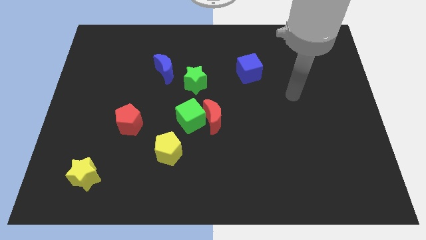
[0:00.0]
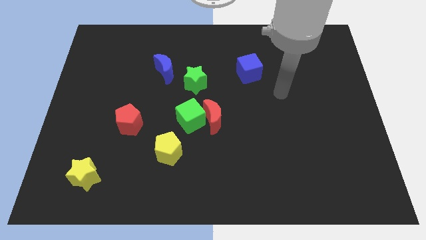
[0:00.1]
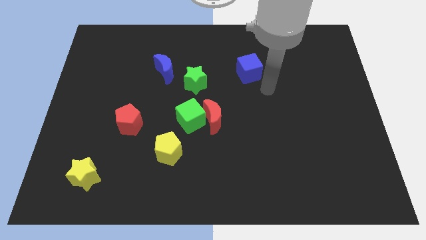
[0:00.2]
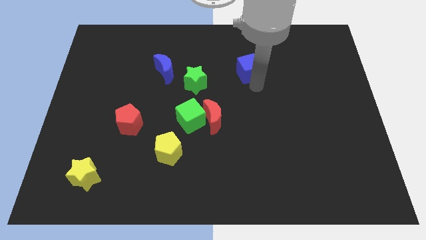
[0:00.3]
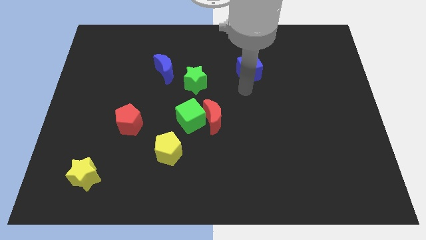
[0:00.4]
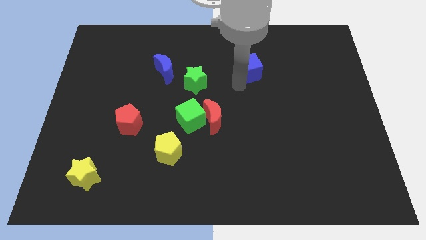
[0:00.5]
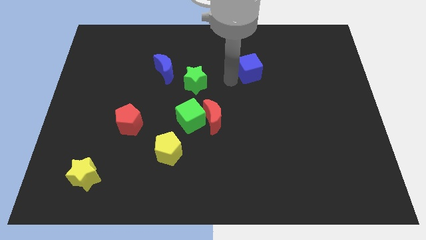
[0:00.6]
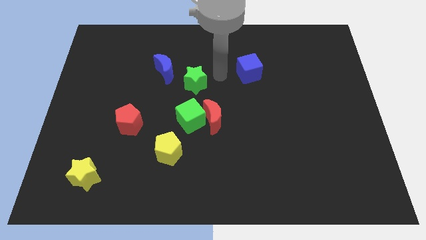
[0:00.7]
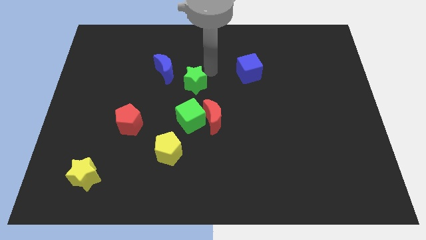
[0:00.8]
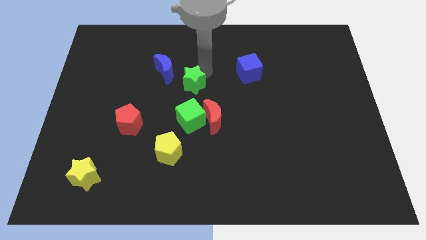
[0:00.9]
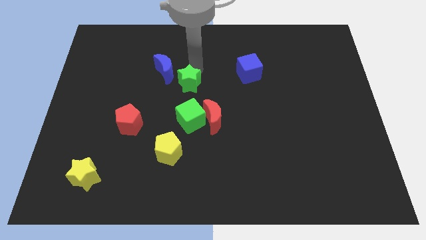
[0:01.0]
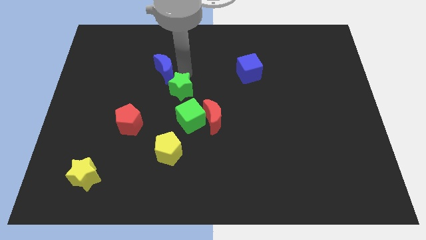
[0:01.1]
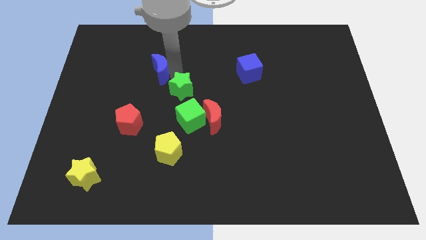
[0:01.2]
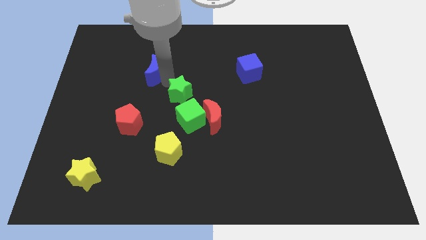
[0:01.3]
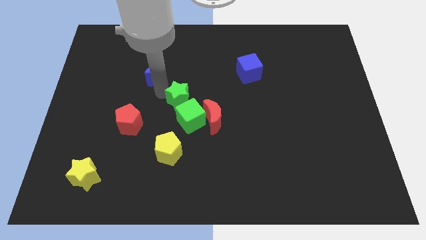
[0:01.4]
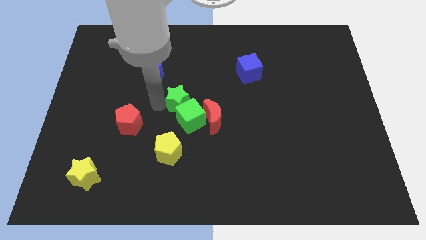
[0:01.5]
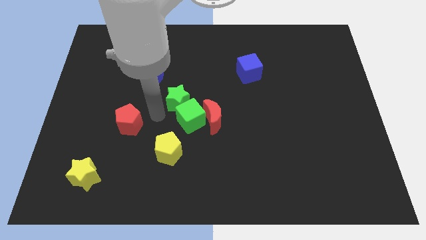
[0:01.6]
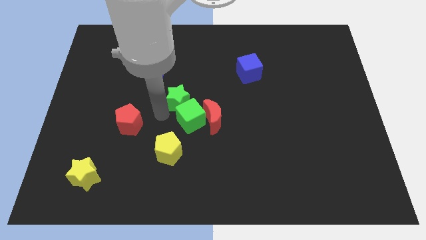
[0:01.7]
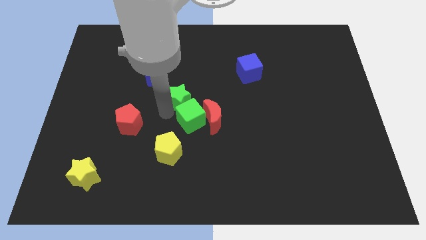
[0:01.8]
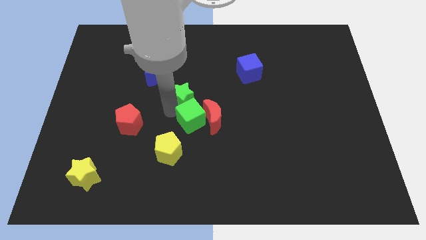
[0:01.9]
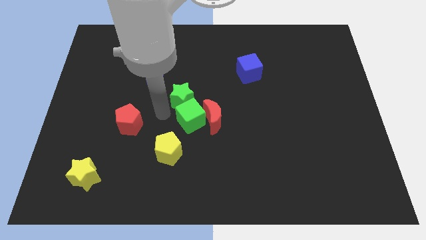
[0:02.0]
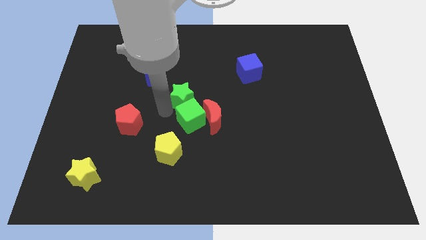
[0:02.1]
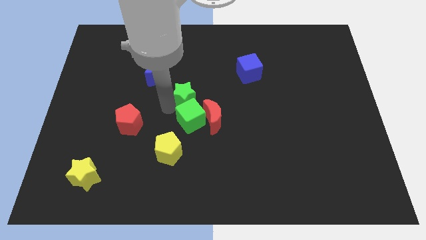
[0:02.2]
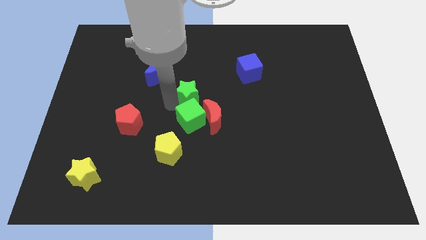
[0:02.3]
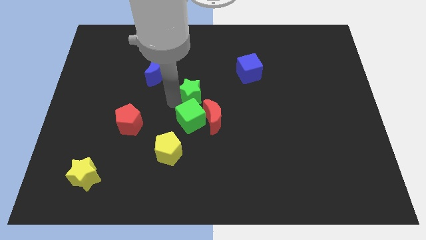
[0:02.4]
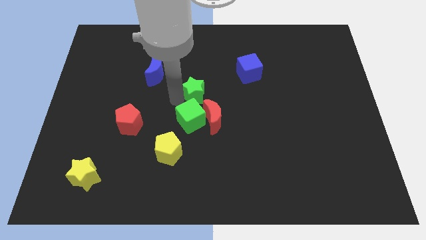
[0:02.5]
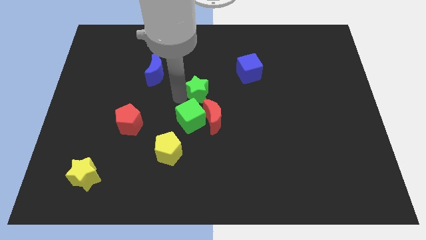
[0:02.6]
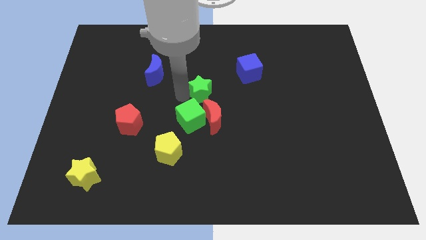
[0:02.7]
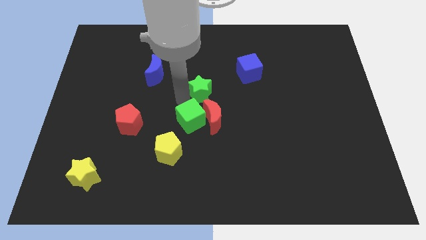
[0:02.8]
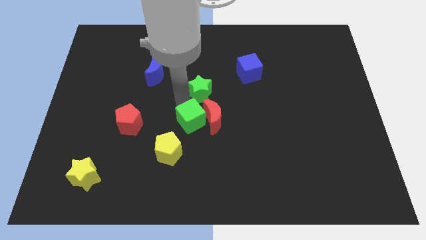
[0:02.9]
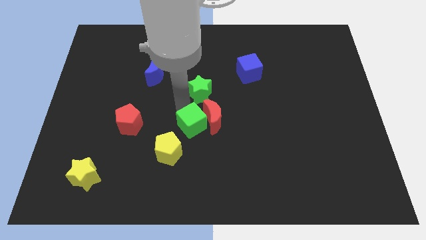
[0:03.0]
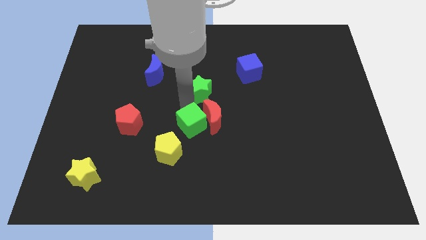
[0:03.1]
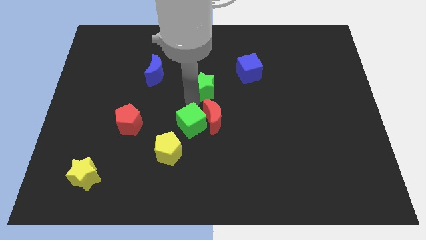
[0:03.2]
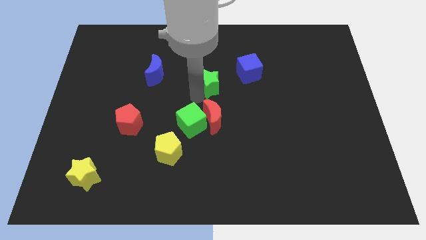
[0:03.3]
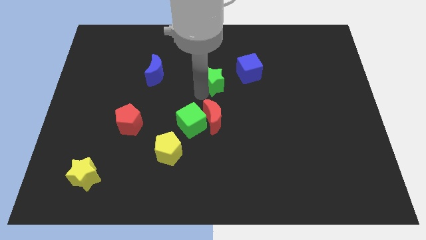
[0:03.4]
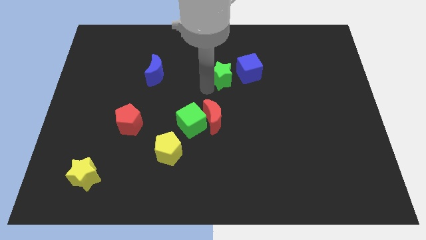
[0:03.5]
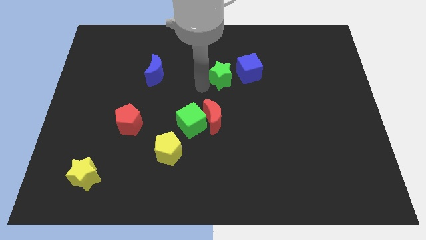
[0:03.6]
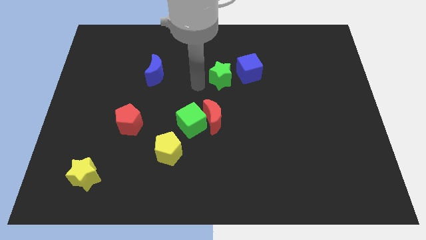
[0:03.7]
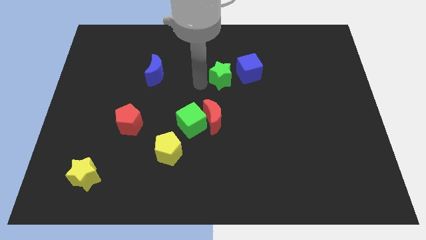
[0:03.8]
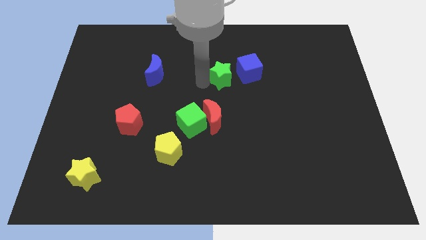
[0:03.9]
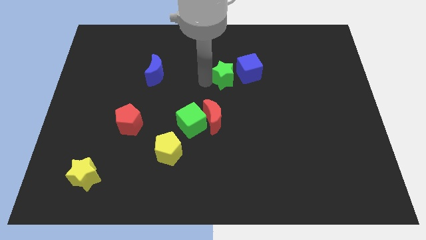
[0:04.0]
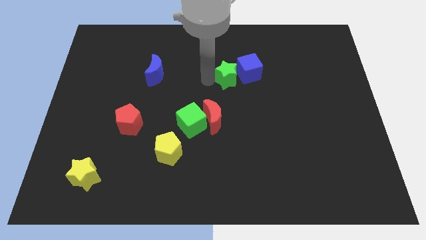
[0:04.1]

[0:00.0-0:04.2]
put the green star towards the blue cube

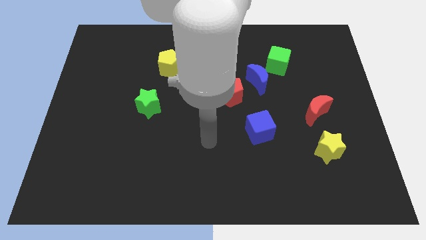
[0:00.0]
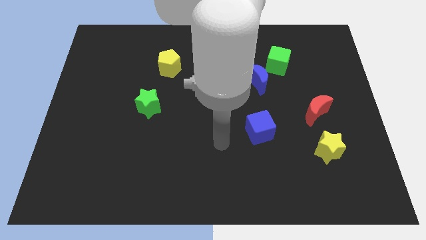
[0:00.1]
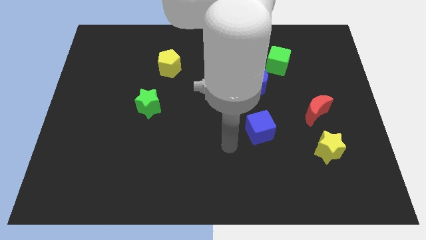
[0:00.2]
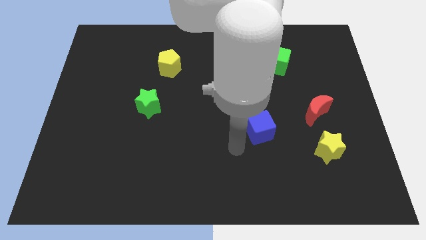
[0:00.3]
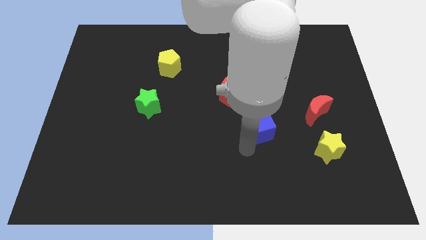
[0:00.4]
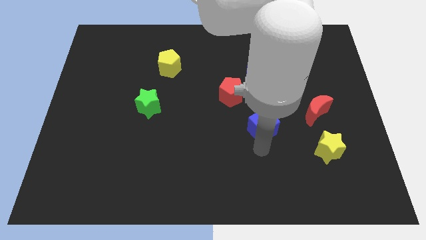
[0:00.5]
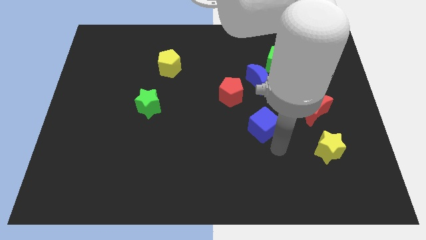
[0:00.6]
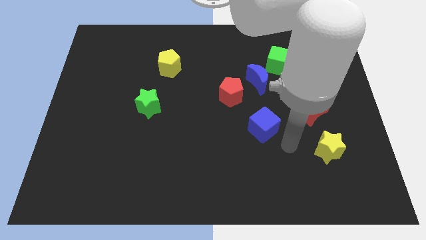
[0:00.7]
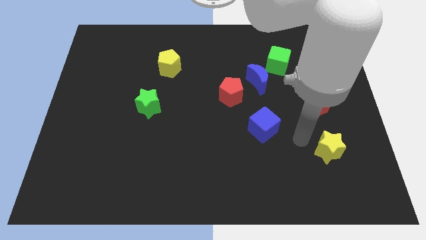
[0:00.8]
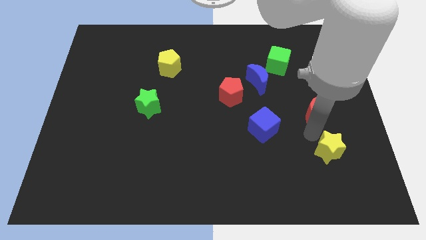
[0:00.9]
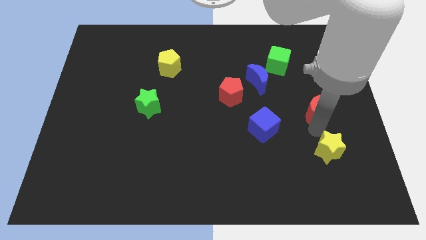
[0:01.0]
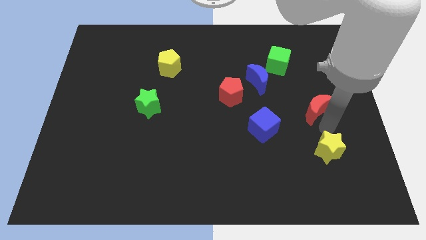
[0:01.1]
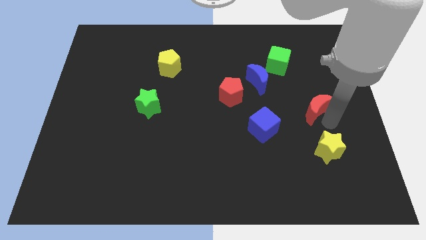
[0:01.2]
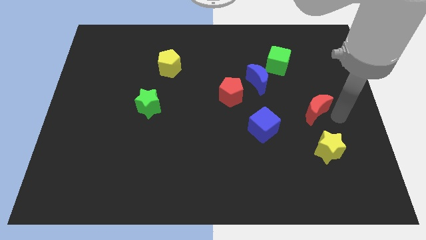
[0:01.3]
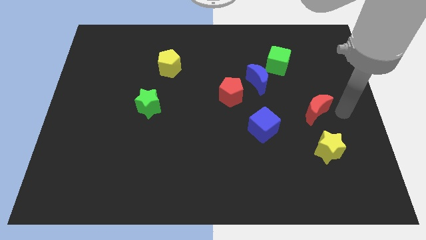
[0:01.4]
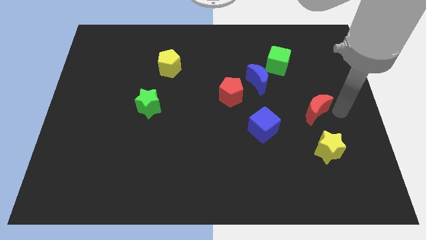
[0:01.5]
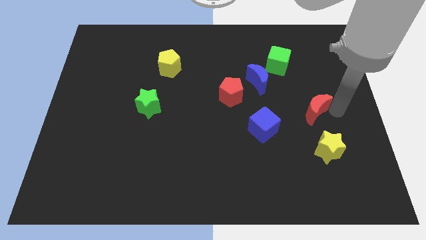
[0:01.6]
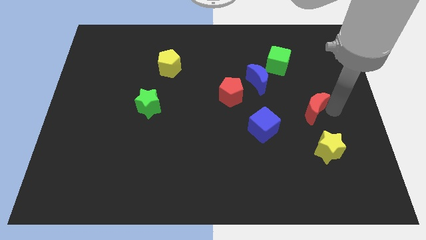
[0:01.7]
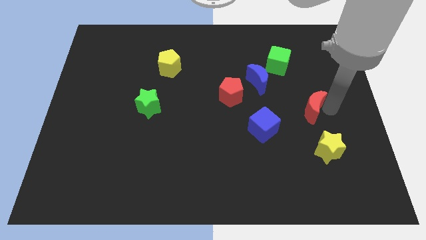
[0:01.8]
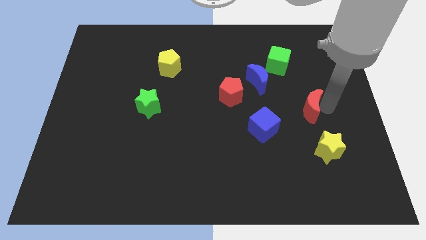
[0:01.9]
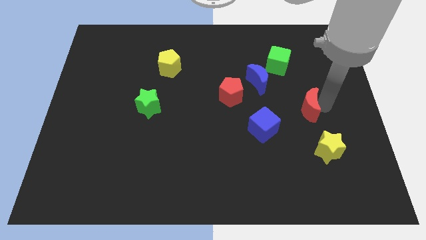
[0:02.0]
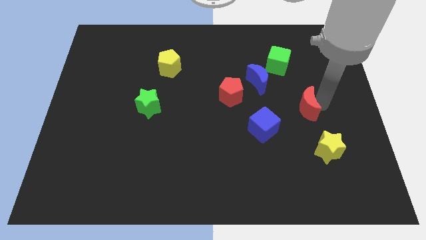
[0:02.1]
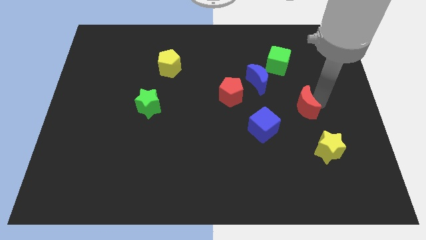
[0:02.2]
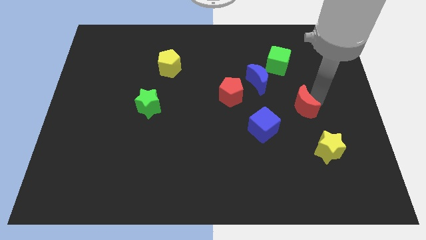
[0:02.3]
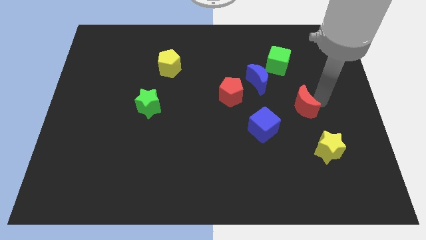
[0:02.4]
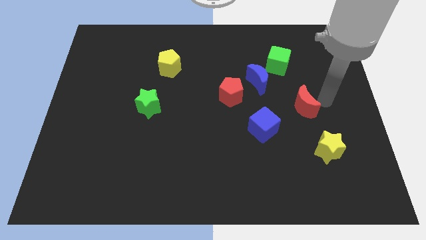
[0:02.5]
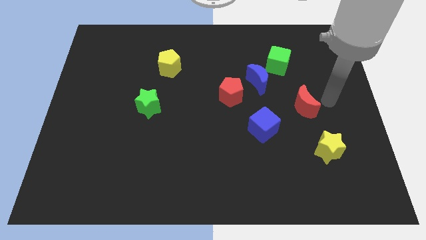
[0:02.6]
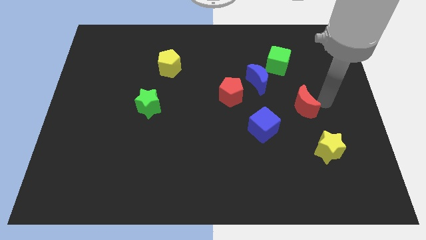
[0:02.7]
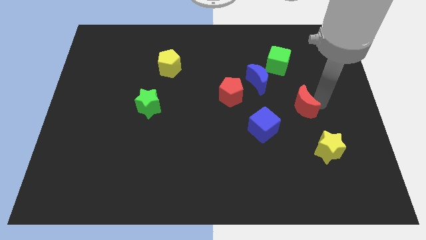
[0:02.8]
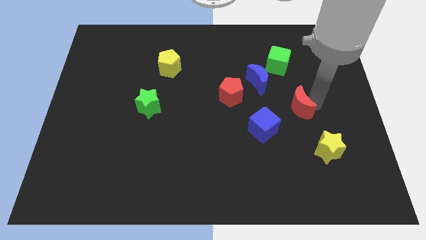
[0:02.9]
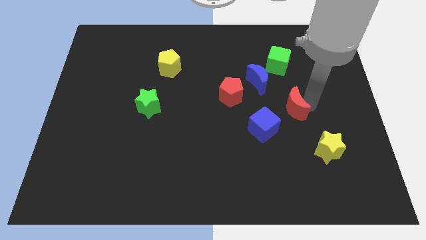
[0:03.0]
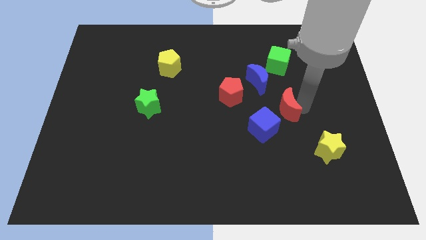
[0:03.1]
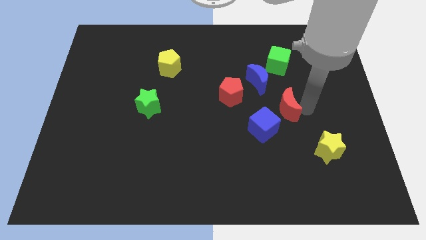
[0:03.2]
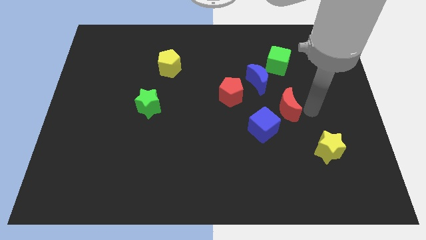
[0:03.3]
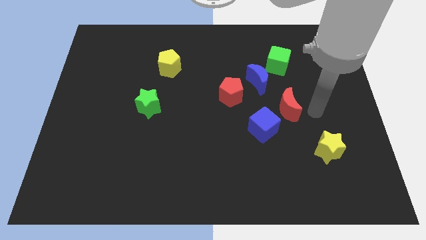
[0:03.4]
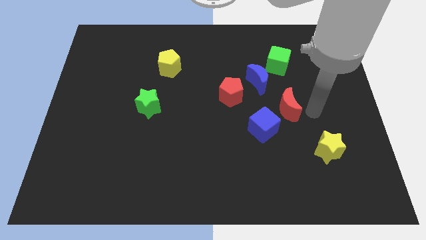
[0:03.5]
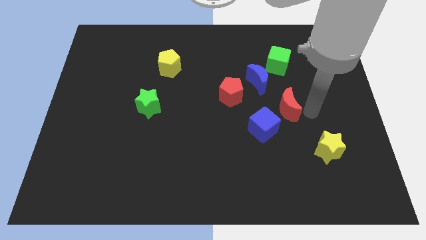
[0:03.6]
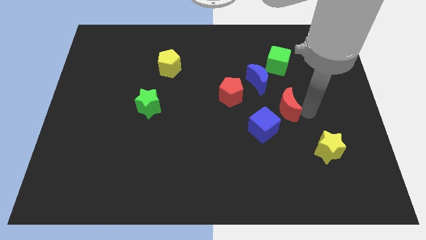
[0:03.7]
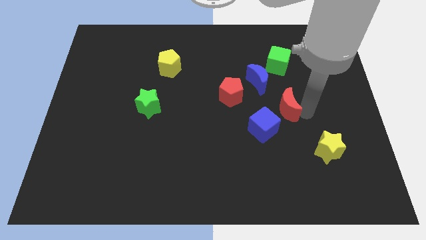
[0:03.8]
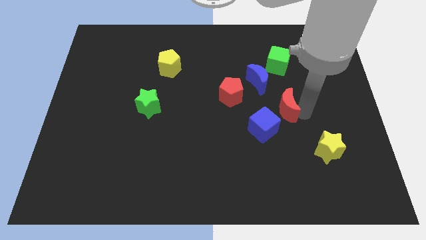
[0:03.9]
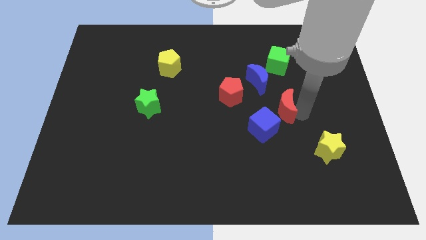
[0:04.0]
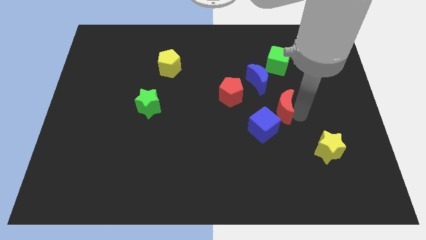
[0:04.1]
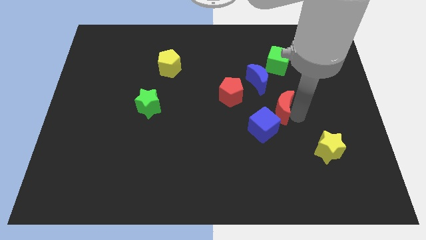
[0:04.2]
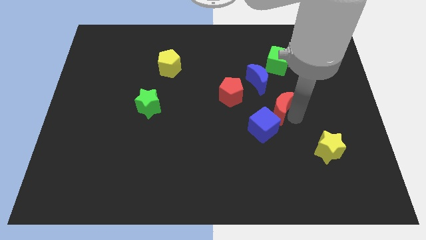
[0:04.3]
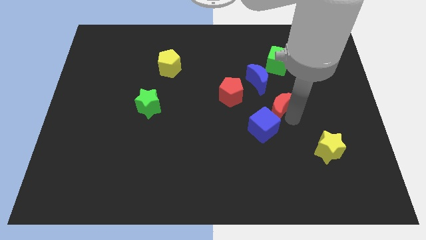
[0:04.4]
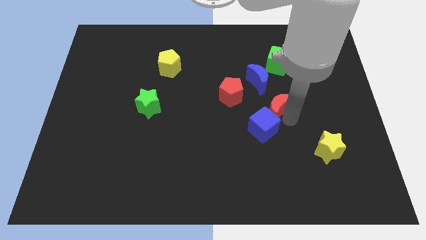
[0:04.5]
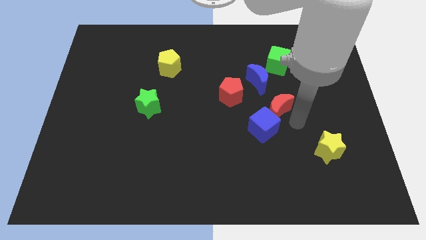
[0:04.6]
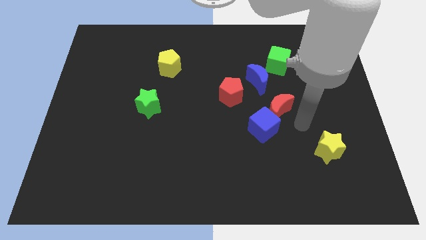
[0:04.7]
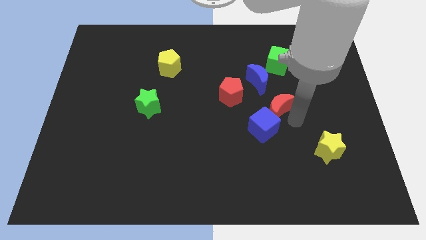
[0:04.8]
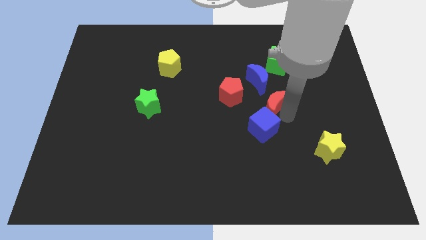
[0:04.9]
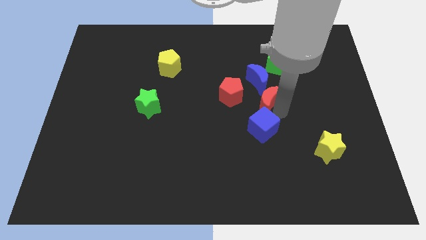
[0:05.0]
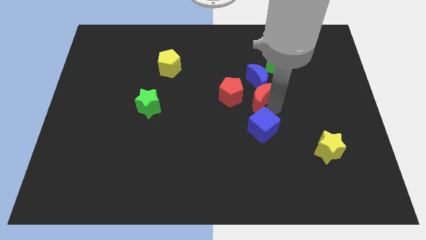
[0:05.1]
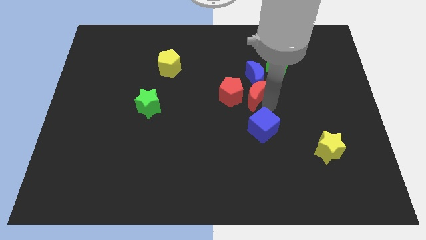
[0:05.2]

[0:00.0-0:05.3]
slide the red moon to the red pentagon
